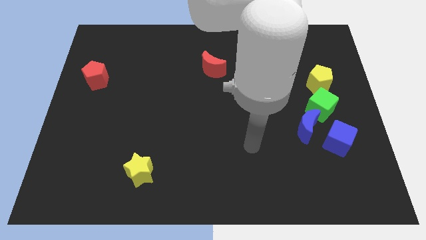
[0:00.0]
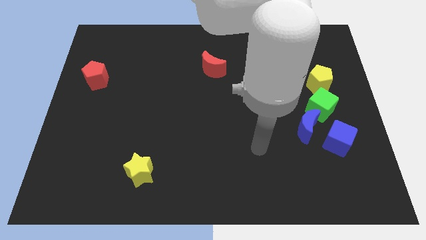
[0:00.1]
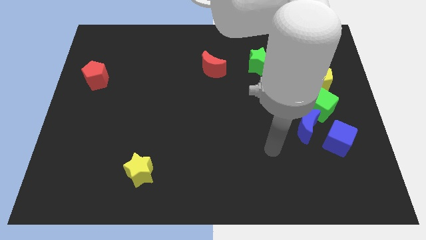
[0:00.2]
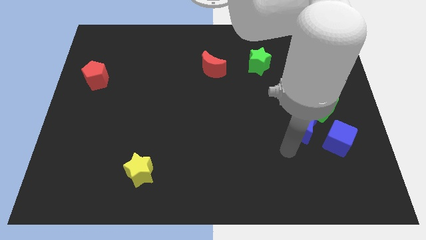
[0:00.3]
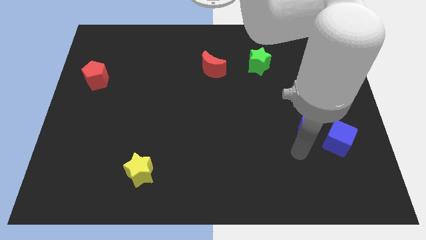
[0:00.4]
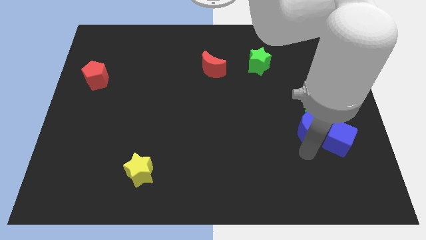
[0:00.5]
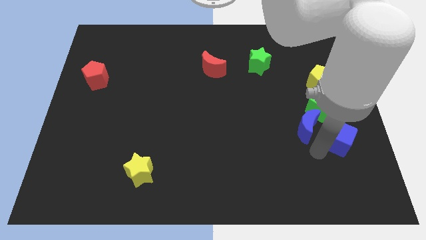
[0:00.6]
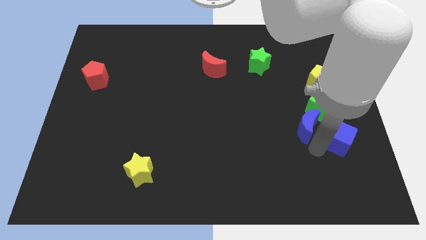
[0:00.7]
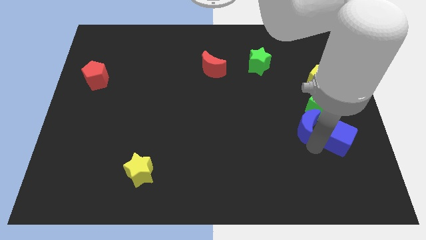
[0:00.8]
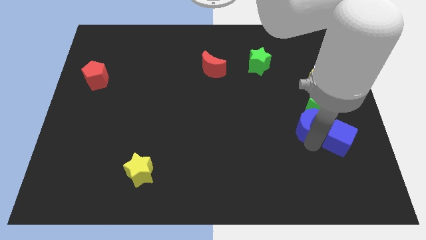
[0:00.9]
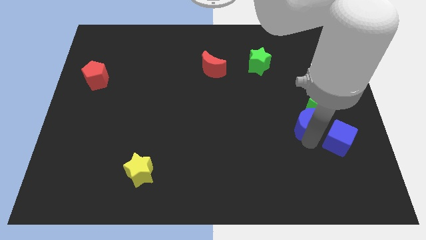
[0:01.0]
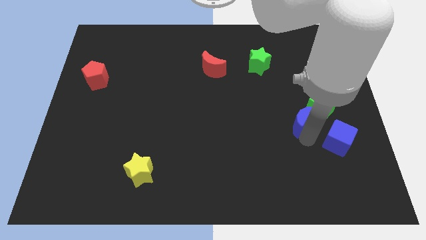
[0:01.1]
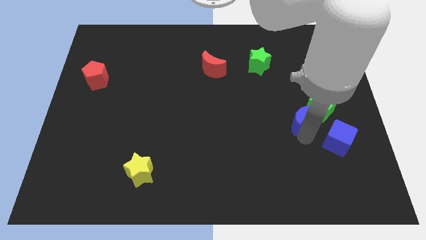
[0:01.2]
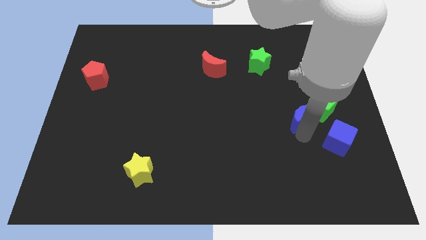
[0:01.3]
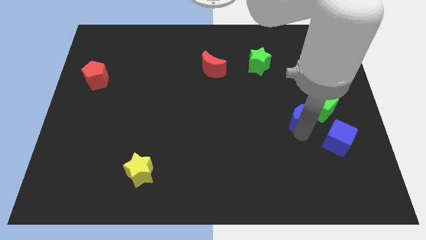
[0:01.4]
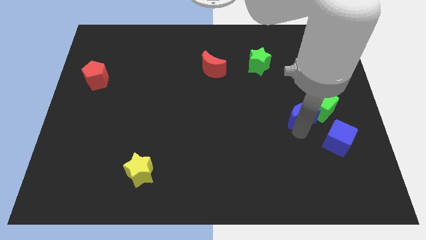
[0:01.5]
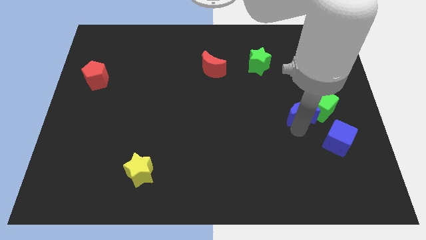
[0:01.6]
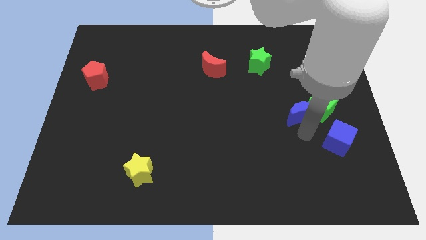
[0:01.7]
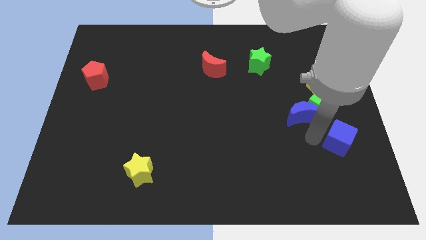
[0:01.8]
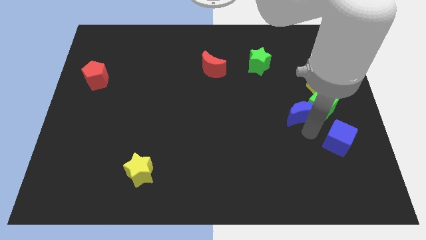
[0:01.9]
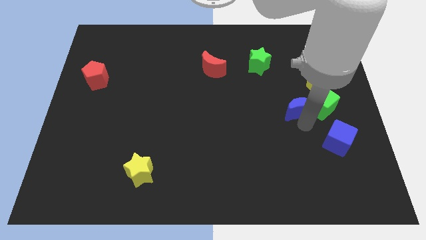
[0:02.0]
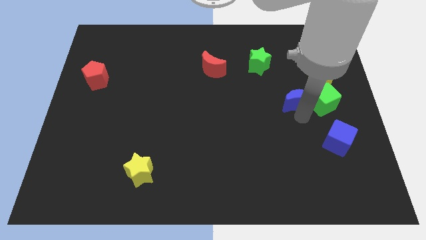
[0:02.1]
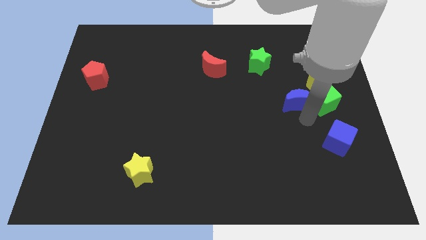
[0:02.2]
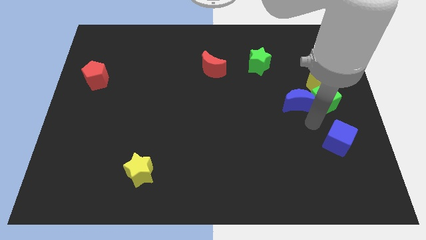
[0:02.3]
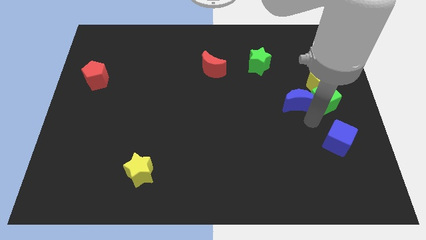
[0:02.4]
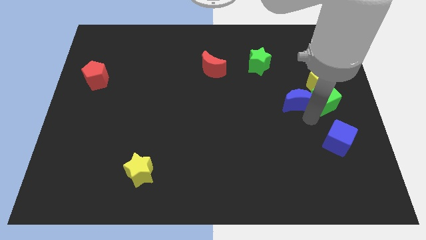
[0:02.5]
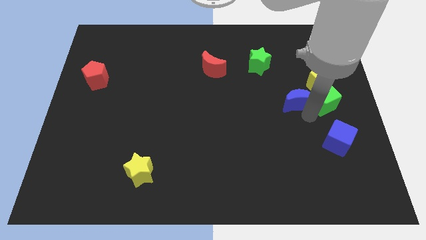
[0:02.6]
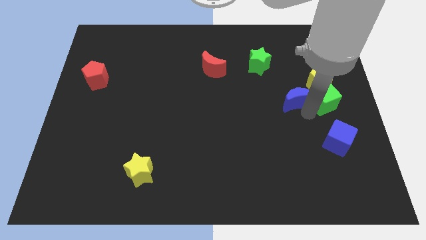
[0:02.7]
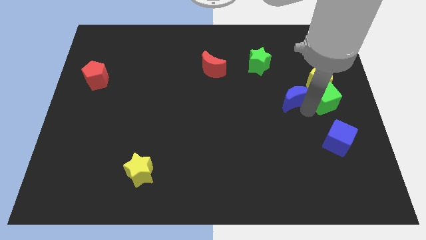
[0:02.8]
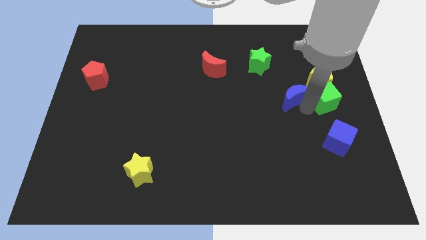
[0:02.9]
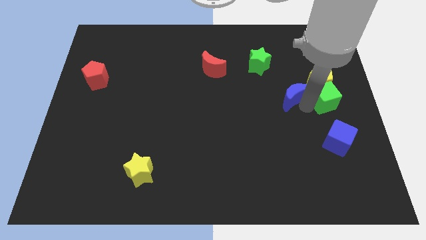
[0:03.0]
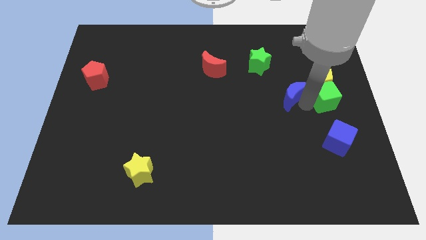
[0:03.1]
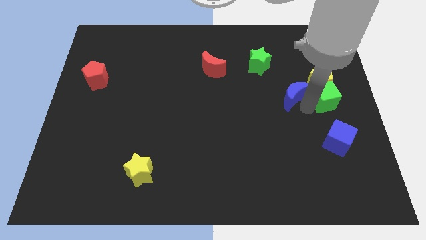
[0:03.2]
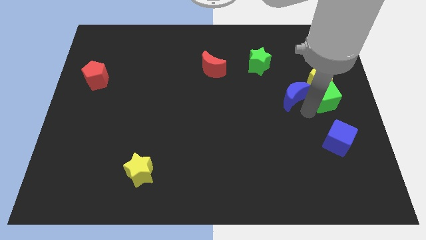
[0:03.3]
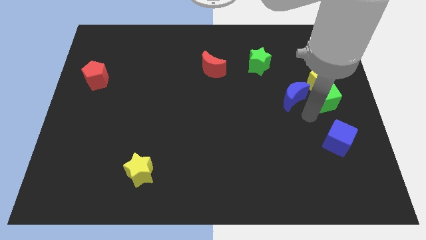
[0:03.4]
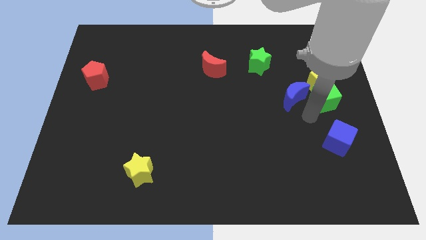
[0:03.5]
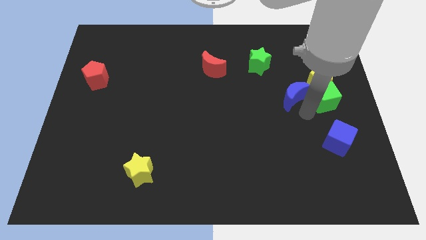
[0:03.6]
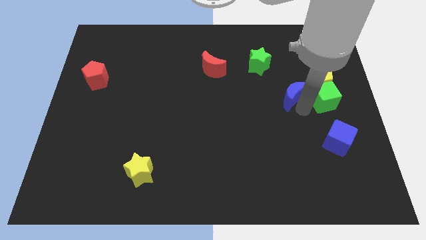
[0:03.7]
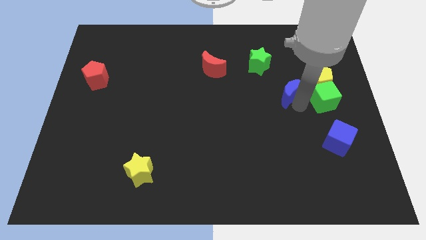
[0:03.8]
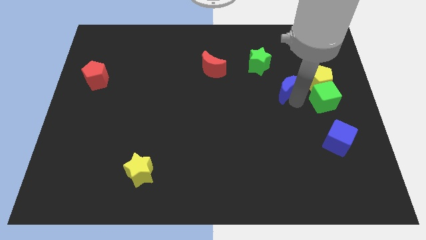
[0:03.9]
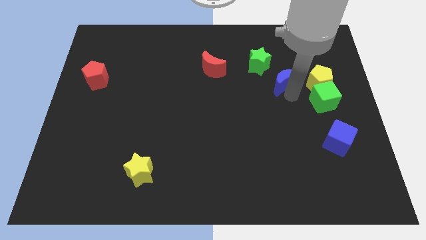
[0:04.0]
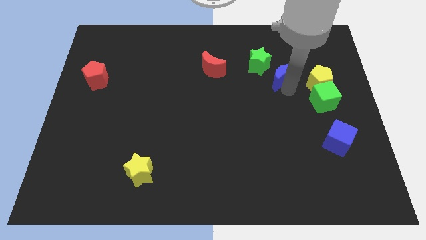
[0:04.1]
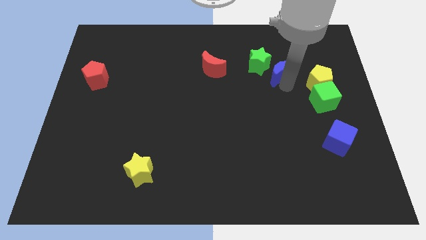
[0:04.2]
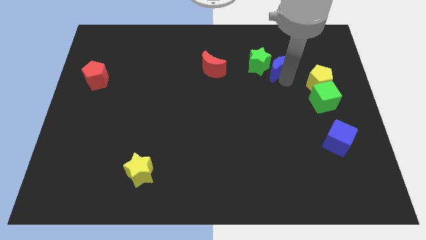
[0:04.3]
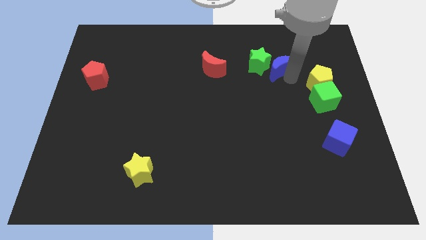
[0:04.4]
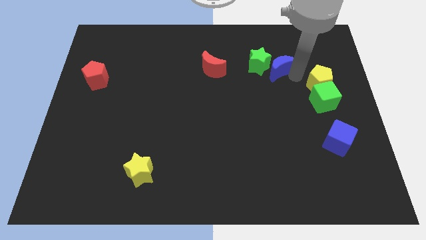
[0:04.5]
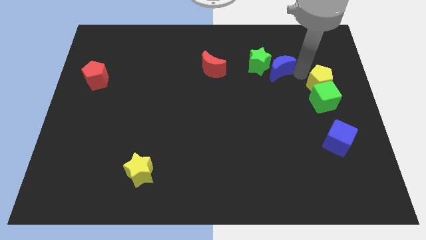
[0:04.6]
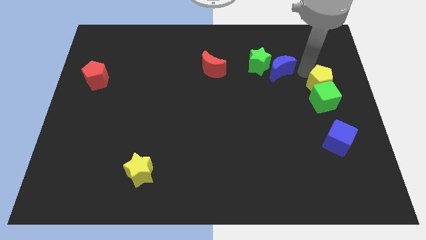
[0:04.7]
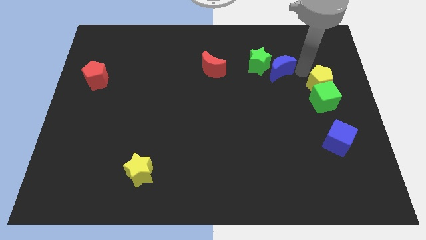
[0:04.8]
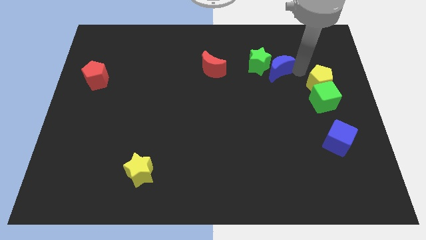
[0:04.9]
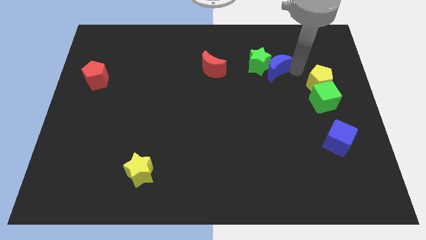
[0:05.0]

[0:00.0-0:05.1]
push the blue moon just right of the red moon

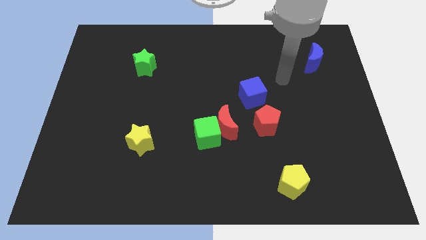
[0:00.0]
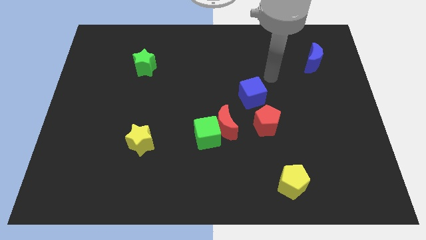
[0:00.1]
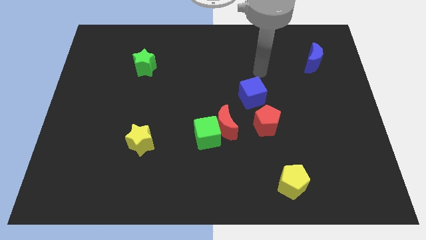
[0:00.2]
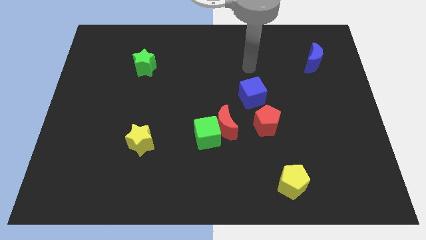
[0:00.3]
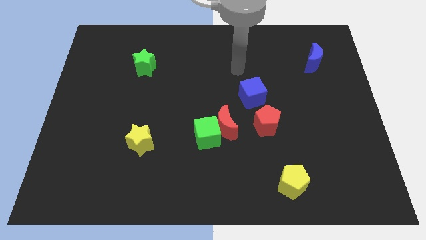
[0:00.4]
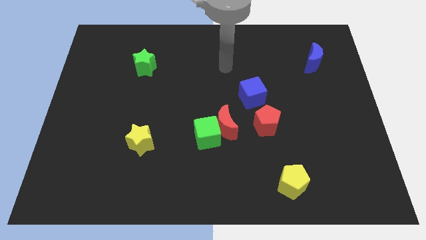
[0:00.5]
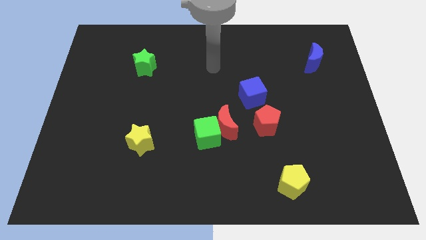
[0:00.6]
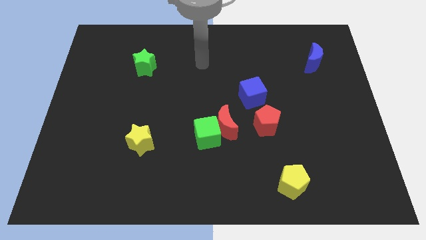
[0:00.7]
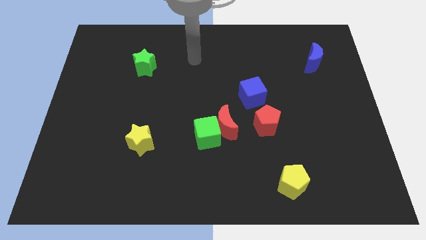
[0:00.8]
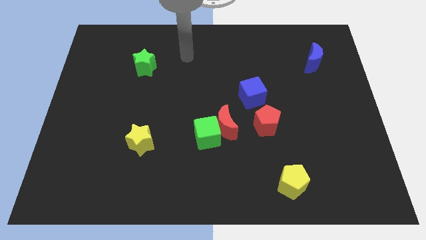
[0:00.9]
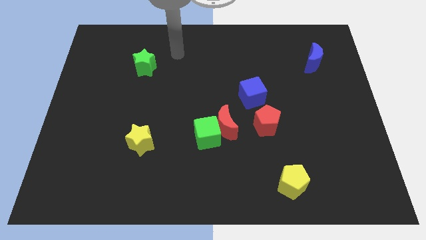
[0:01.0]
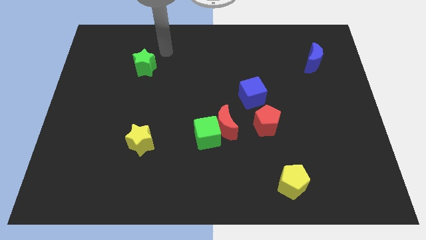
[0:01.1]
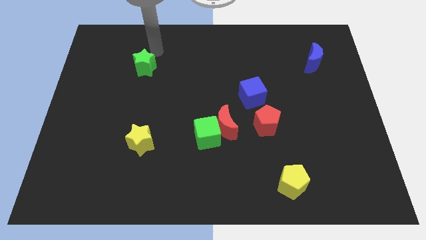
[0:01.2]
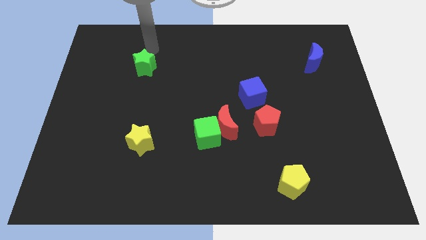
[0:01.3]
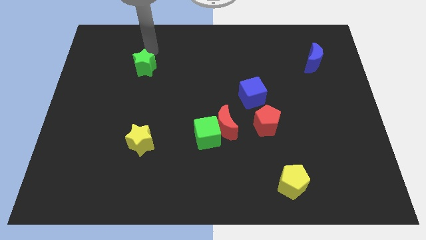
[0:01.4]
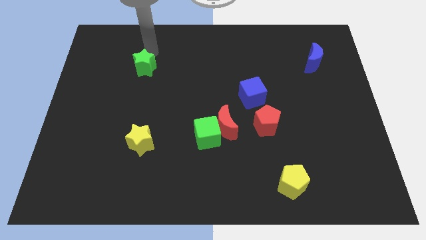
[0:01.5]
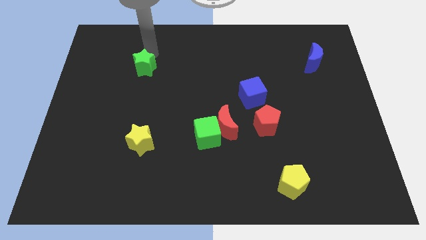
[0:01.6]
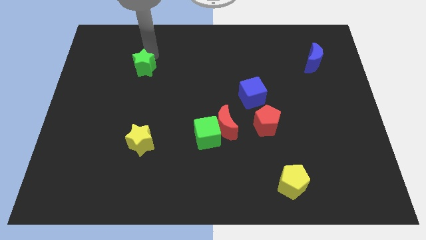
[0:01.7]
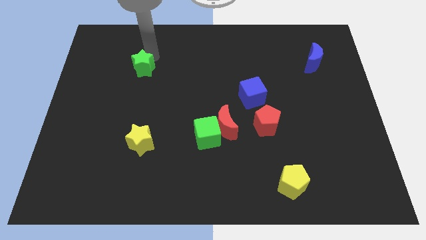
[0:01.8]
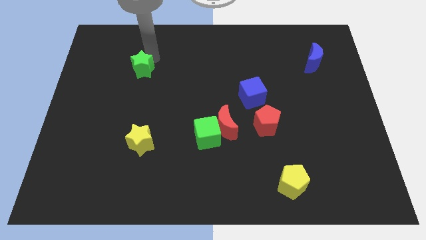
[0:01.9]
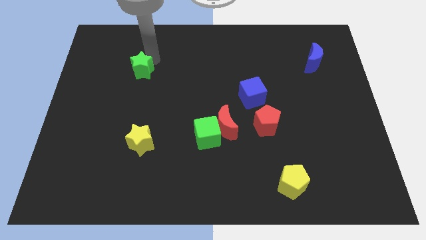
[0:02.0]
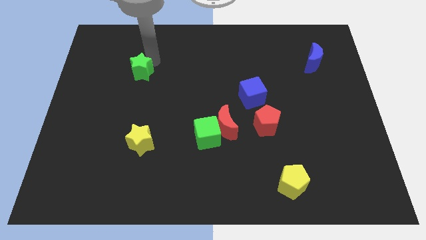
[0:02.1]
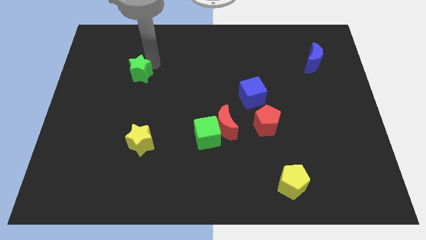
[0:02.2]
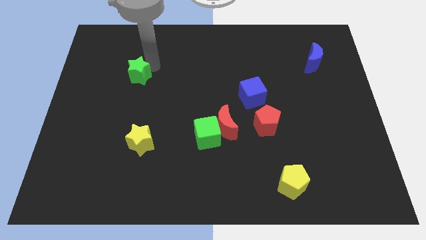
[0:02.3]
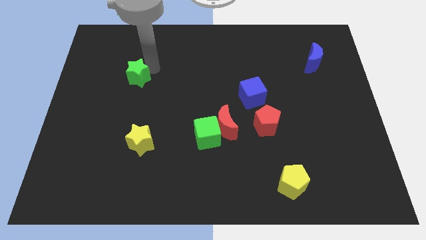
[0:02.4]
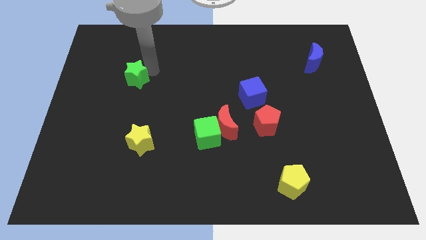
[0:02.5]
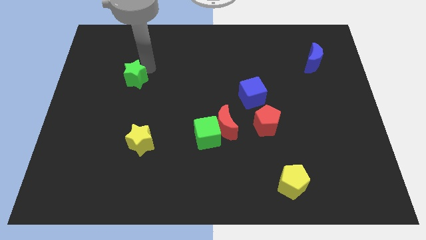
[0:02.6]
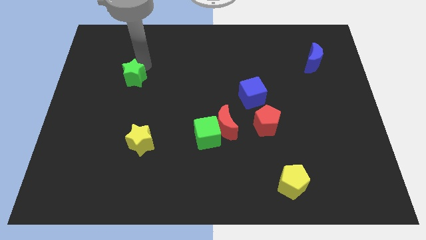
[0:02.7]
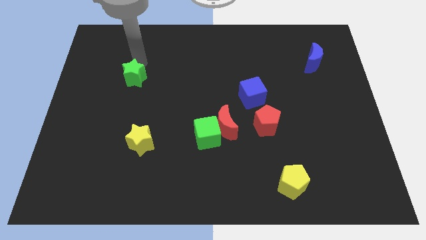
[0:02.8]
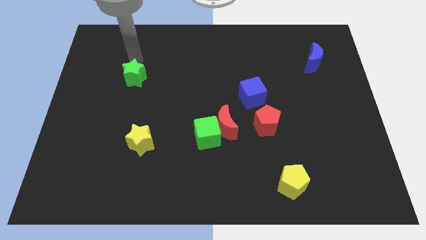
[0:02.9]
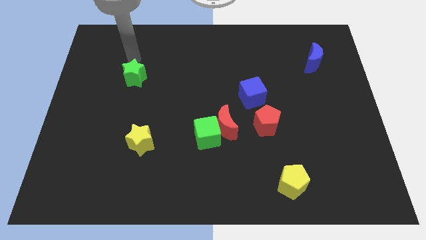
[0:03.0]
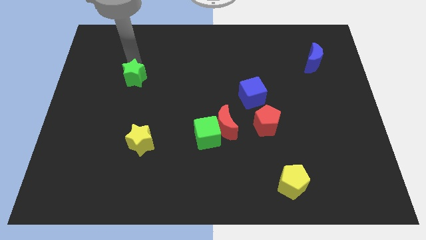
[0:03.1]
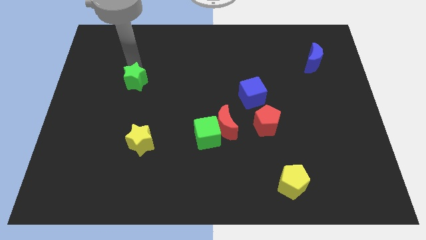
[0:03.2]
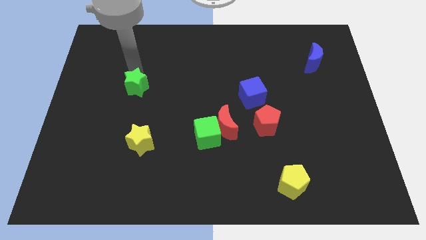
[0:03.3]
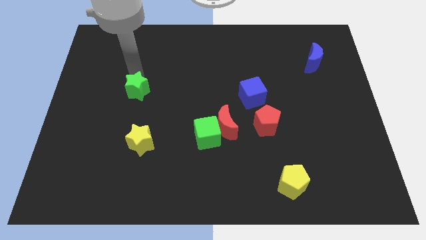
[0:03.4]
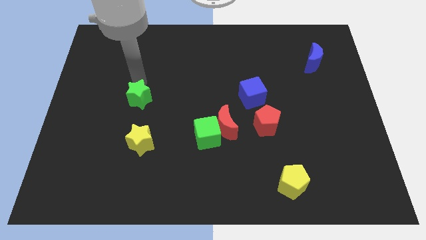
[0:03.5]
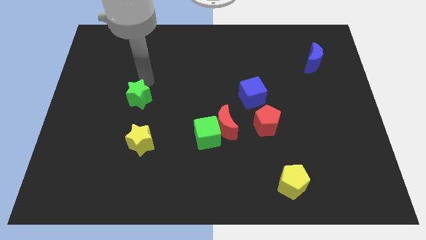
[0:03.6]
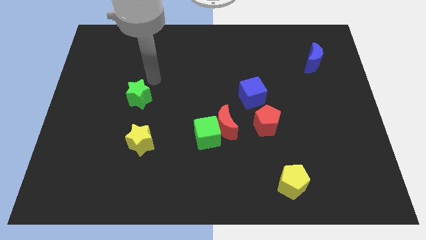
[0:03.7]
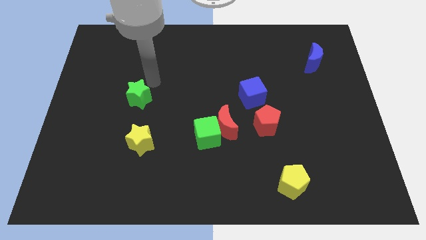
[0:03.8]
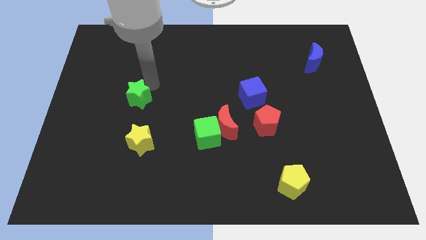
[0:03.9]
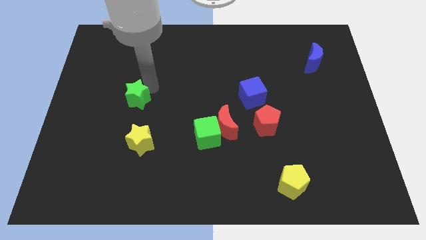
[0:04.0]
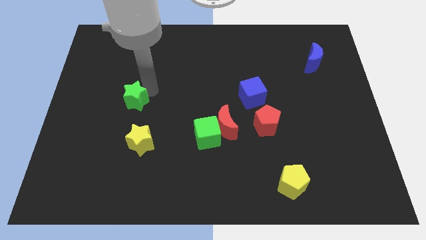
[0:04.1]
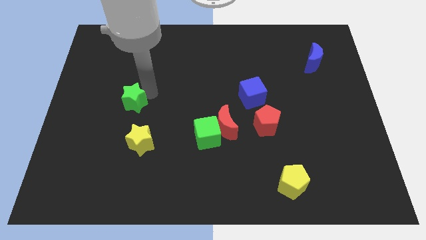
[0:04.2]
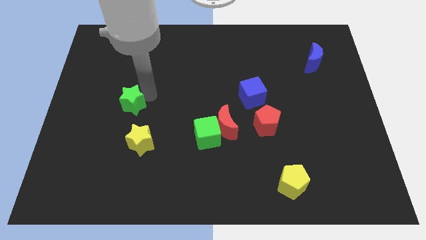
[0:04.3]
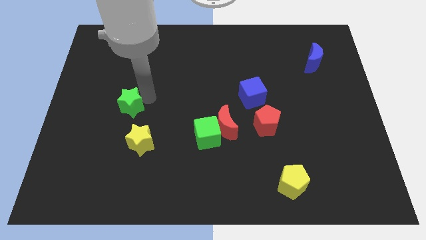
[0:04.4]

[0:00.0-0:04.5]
put the green star to the top left of the yellow star
